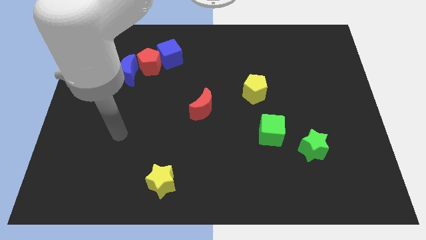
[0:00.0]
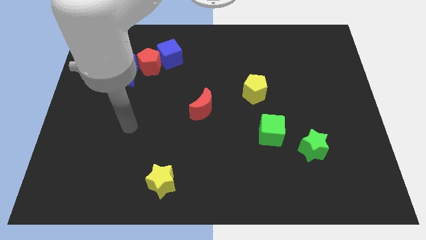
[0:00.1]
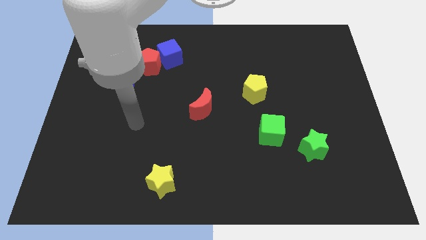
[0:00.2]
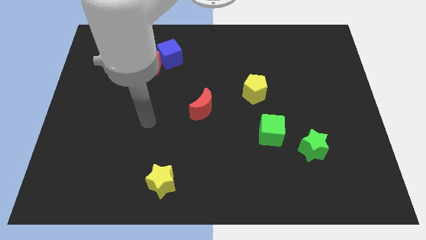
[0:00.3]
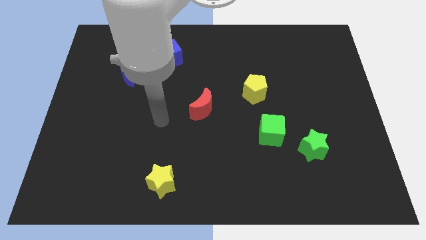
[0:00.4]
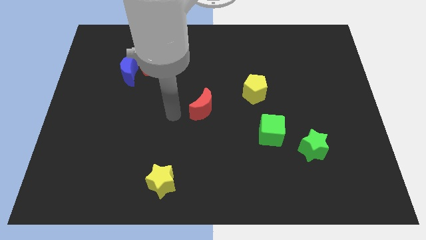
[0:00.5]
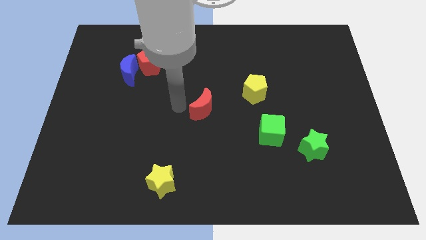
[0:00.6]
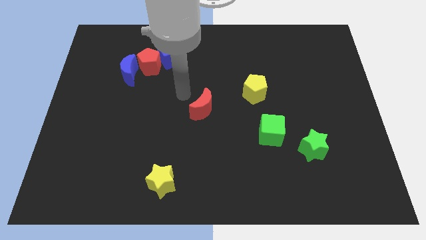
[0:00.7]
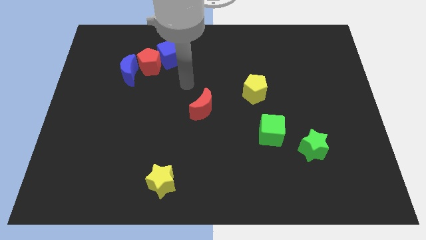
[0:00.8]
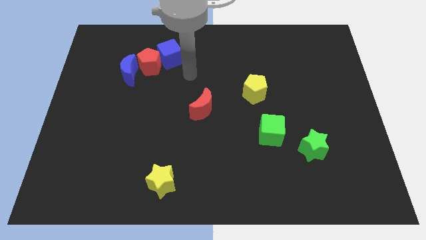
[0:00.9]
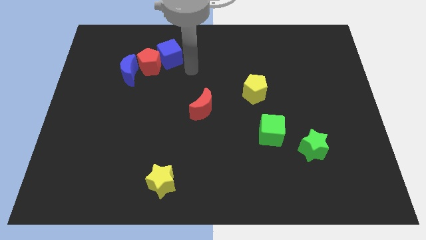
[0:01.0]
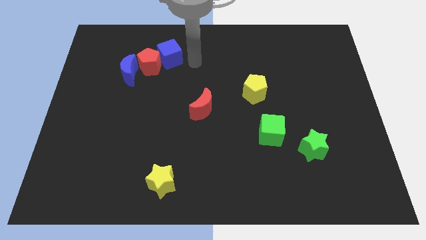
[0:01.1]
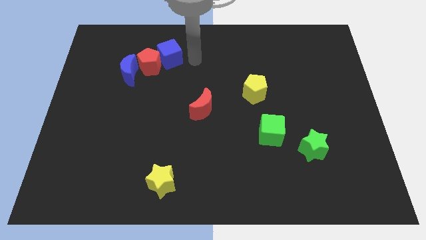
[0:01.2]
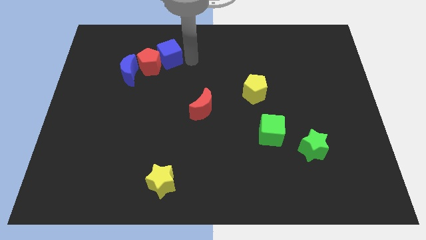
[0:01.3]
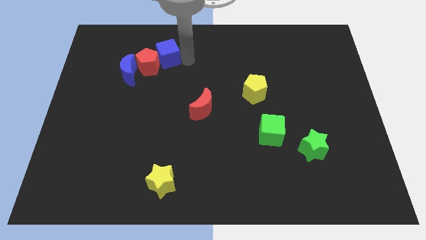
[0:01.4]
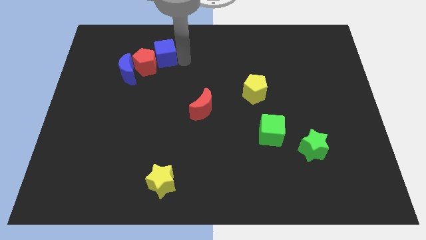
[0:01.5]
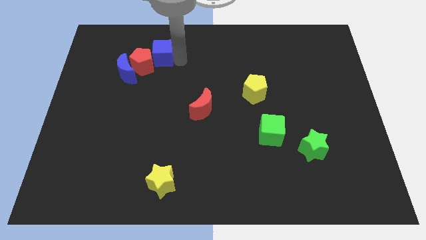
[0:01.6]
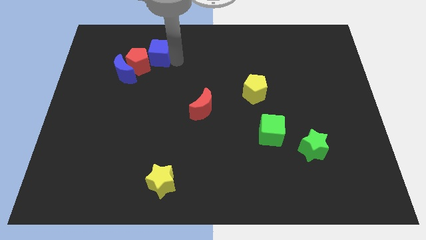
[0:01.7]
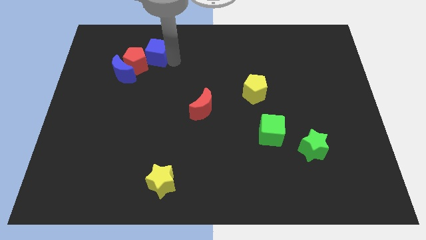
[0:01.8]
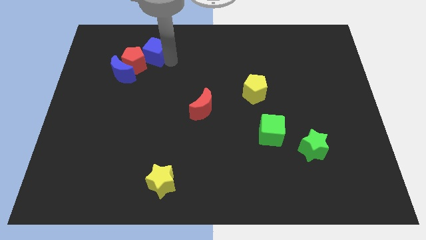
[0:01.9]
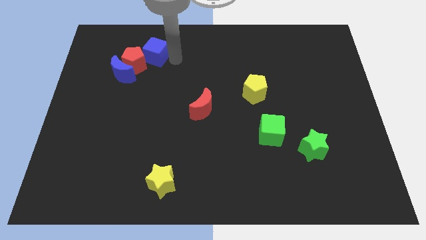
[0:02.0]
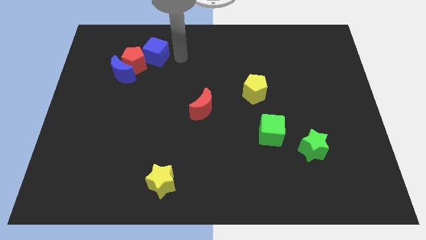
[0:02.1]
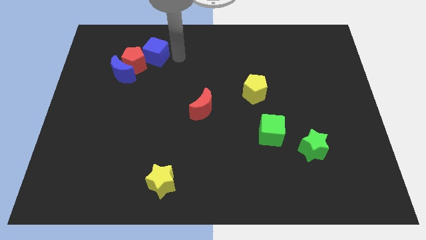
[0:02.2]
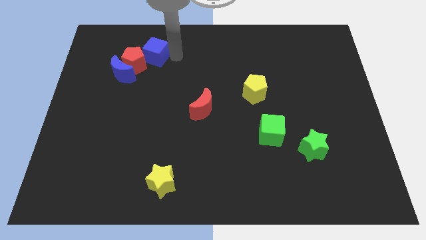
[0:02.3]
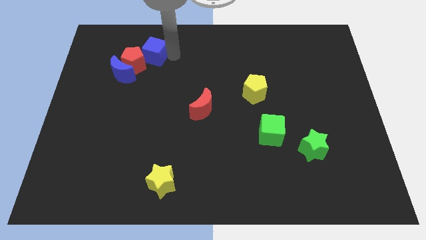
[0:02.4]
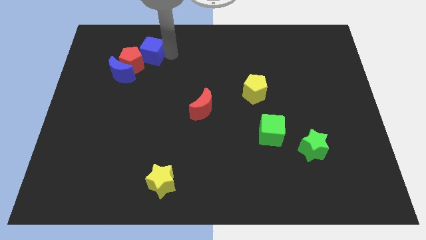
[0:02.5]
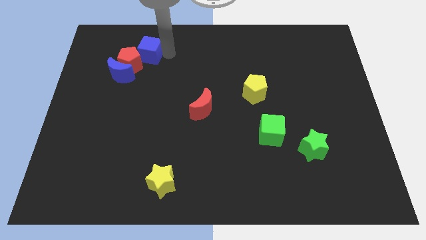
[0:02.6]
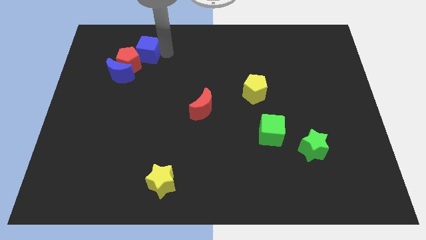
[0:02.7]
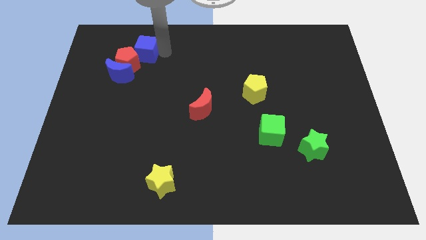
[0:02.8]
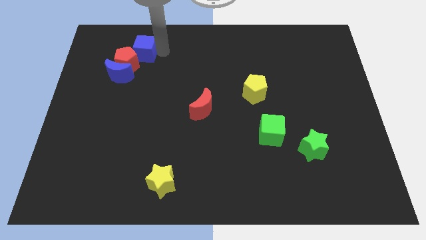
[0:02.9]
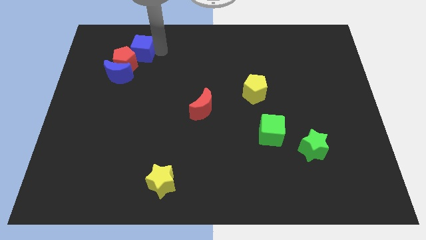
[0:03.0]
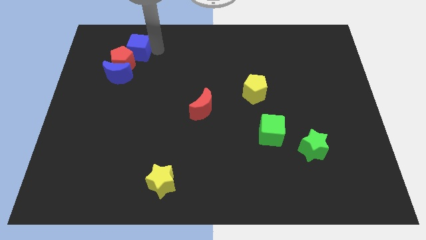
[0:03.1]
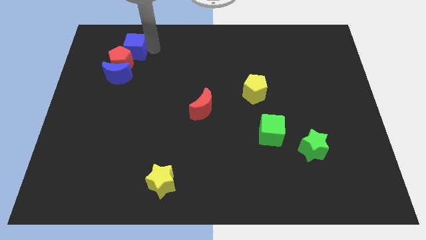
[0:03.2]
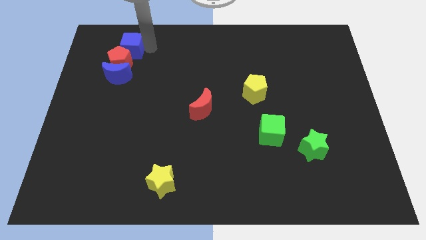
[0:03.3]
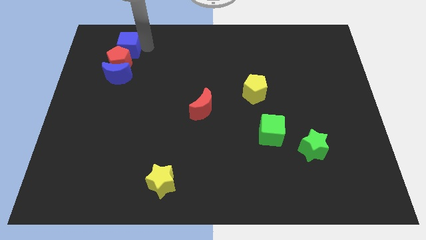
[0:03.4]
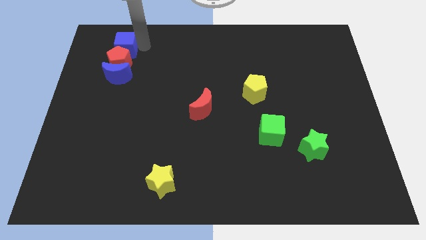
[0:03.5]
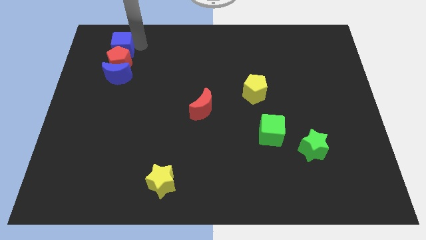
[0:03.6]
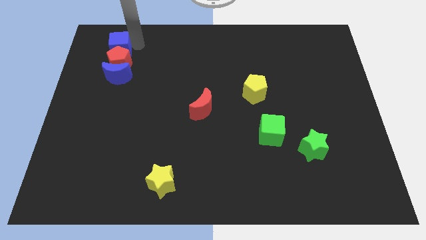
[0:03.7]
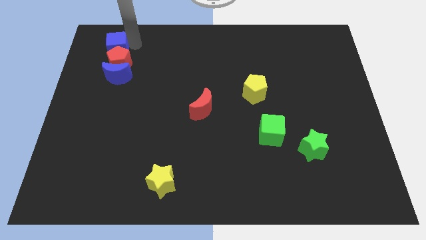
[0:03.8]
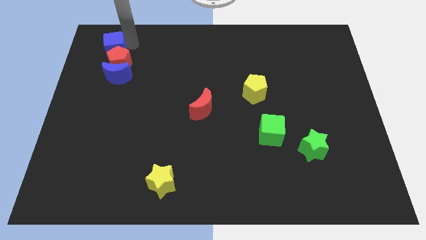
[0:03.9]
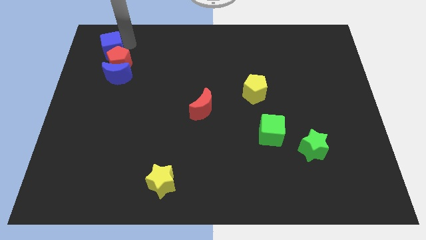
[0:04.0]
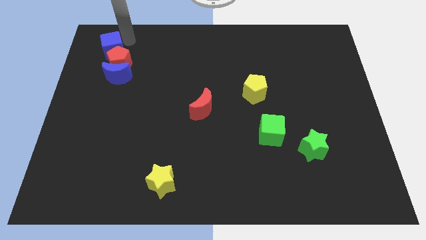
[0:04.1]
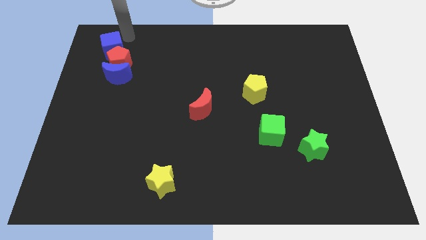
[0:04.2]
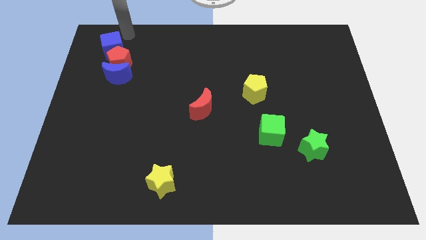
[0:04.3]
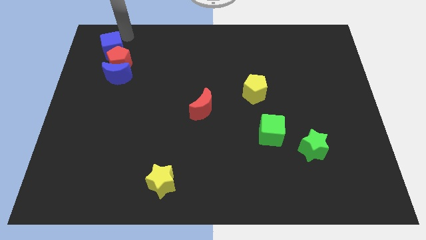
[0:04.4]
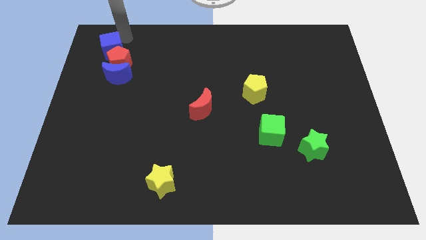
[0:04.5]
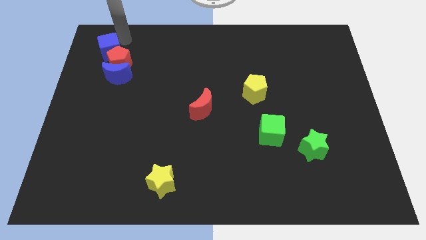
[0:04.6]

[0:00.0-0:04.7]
push the blue cube diagonally up and to the left of the blue moon

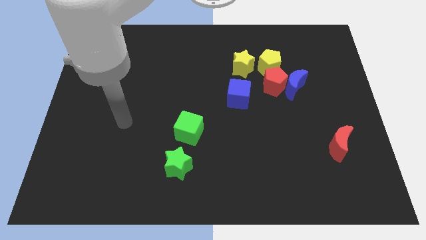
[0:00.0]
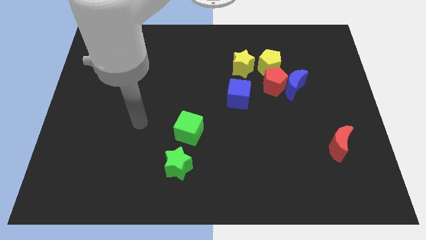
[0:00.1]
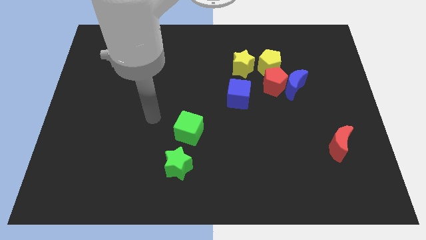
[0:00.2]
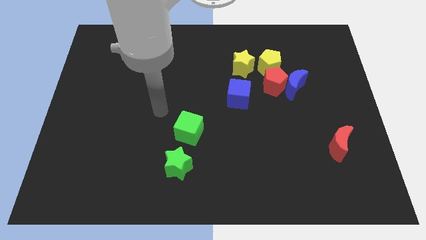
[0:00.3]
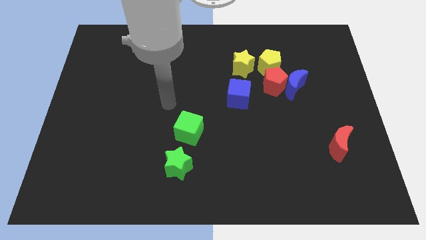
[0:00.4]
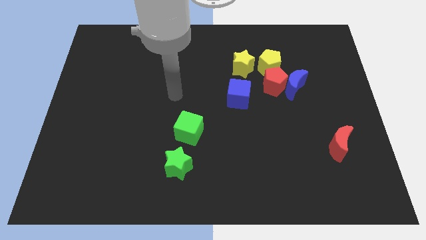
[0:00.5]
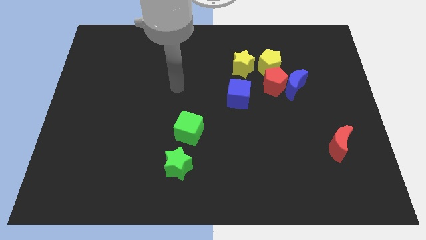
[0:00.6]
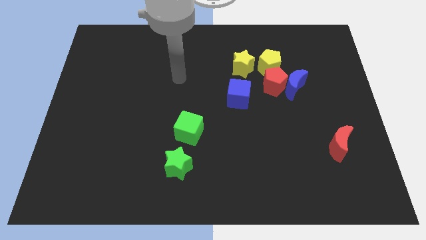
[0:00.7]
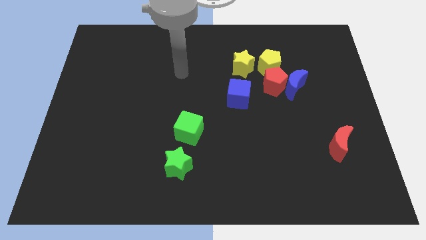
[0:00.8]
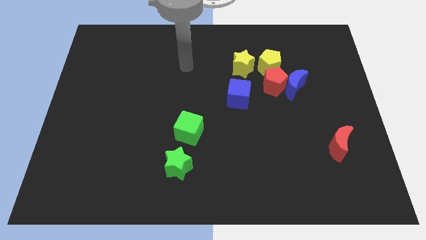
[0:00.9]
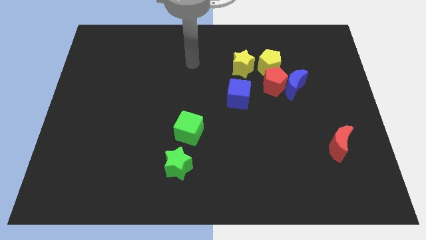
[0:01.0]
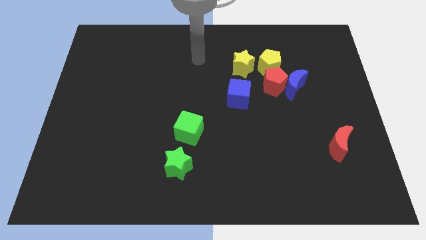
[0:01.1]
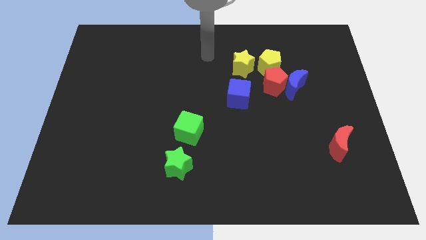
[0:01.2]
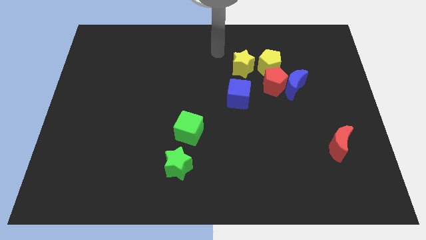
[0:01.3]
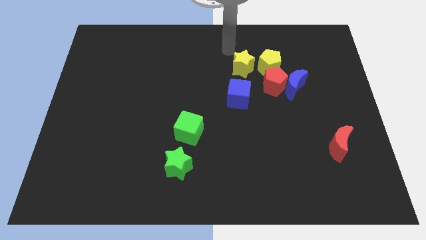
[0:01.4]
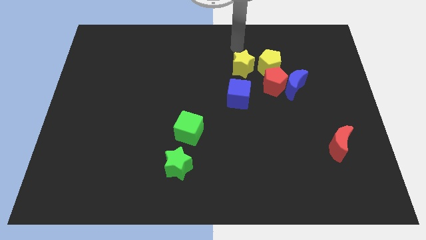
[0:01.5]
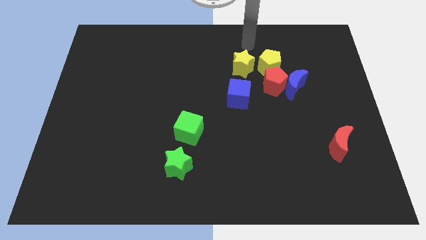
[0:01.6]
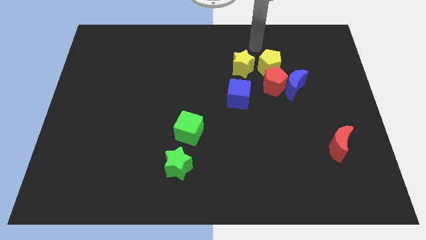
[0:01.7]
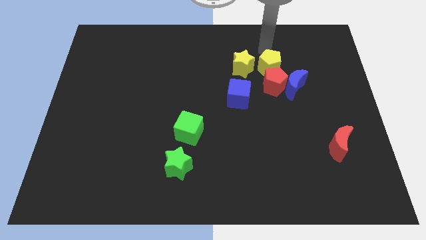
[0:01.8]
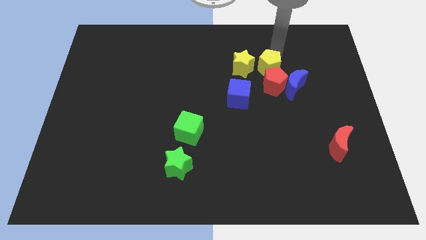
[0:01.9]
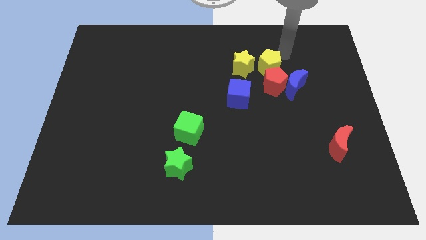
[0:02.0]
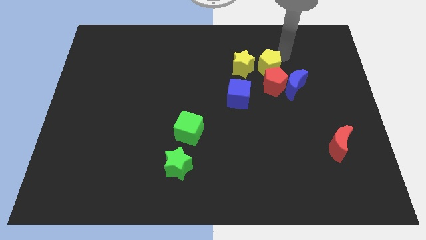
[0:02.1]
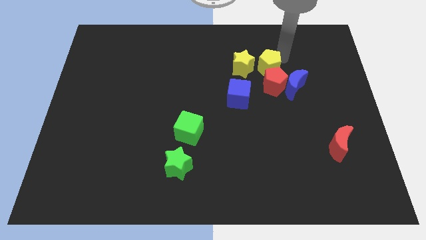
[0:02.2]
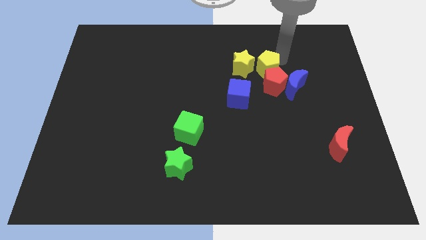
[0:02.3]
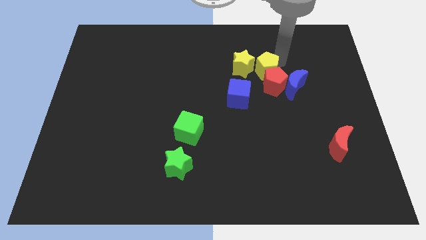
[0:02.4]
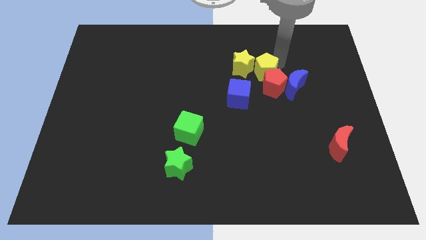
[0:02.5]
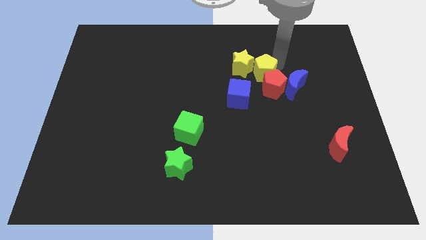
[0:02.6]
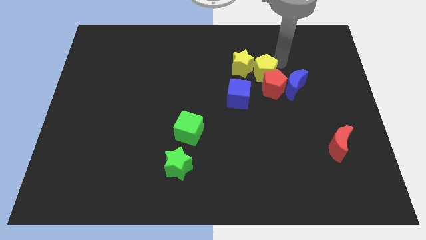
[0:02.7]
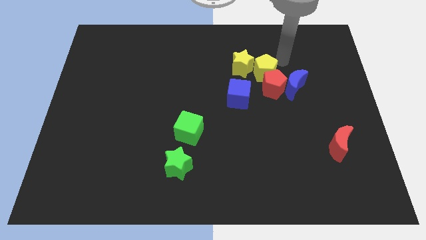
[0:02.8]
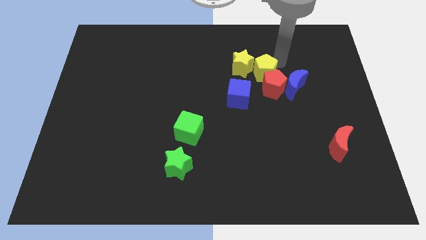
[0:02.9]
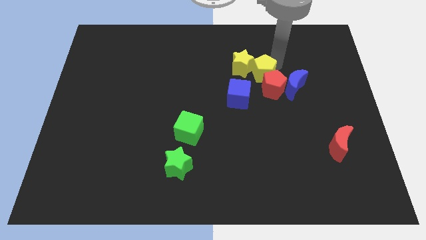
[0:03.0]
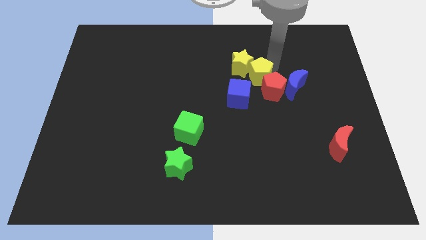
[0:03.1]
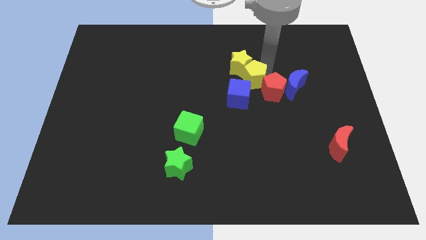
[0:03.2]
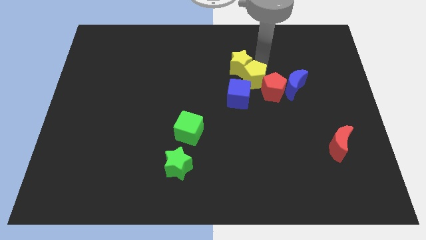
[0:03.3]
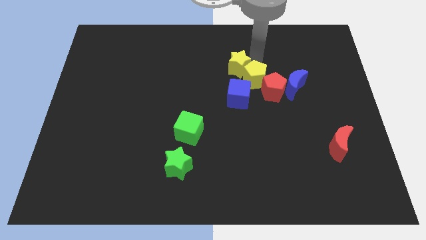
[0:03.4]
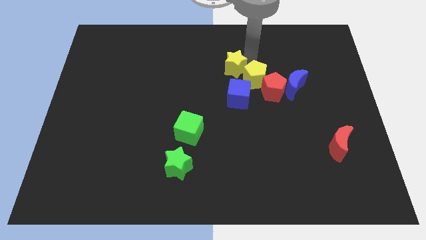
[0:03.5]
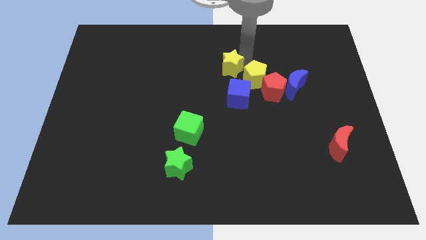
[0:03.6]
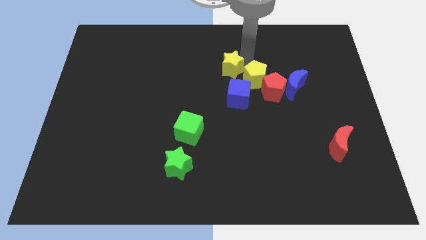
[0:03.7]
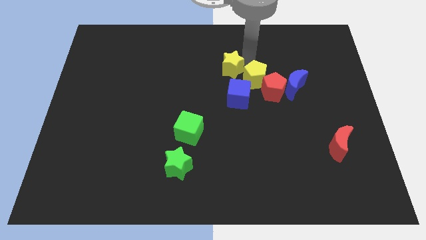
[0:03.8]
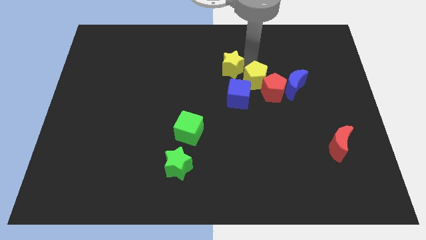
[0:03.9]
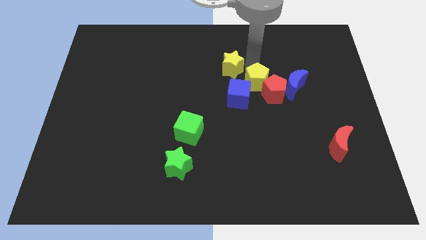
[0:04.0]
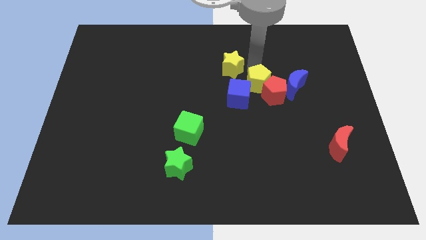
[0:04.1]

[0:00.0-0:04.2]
move the yellow pentagon to the right side of the blue cube
